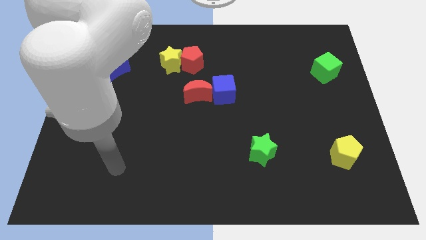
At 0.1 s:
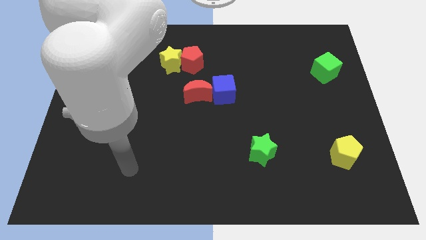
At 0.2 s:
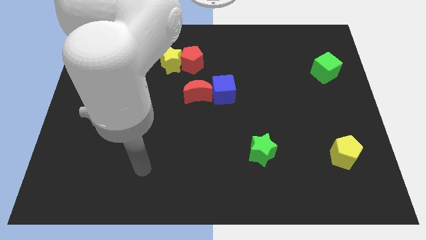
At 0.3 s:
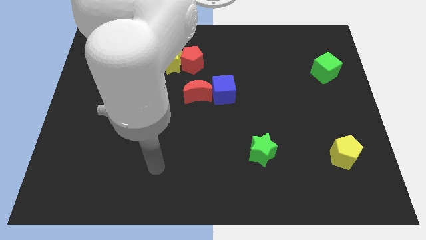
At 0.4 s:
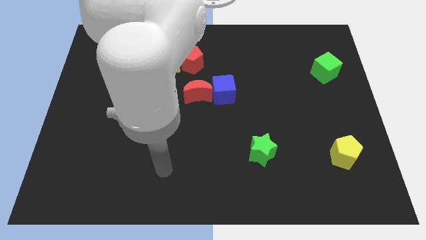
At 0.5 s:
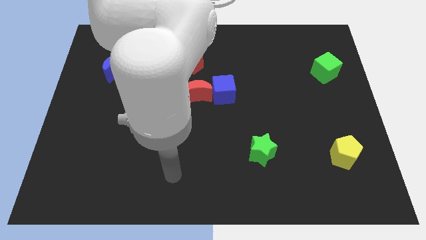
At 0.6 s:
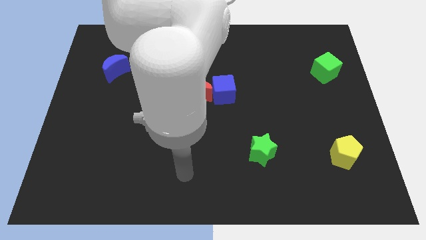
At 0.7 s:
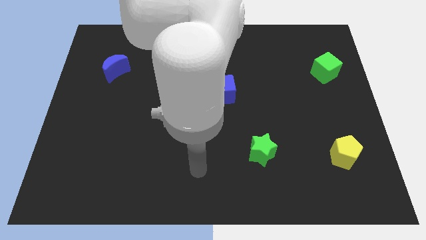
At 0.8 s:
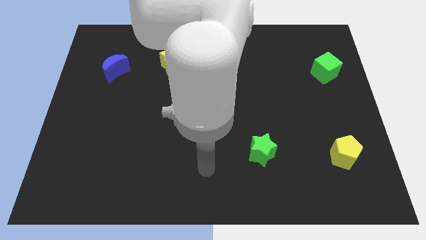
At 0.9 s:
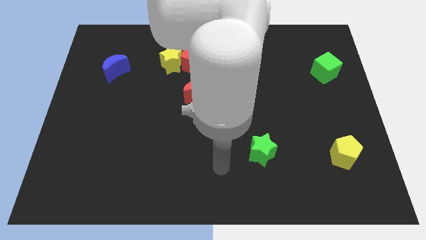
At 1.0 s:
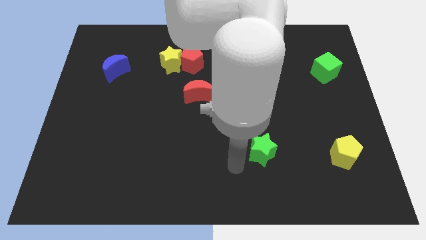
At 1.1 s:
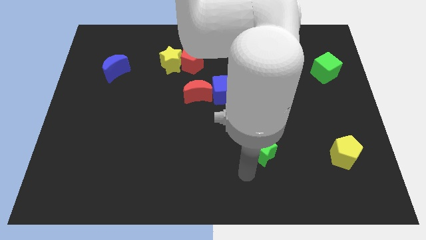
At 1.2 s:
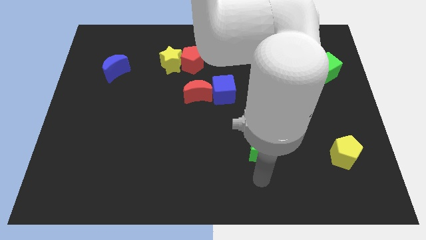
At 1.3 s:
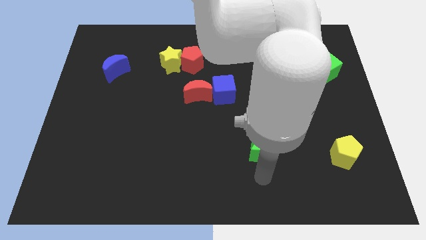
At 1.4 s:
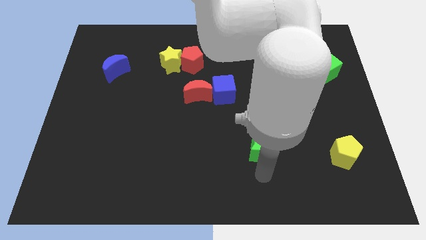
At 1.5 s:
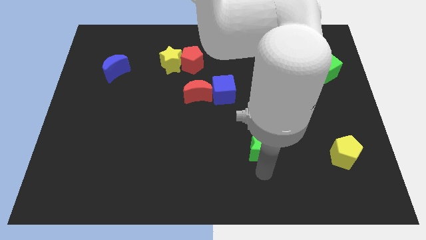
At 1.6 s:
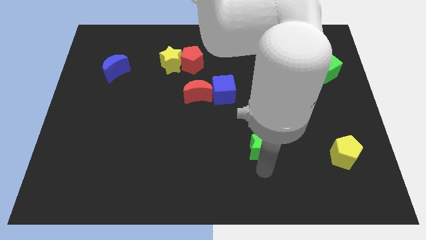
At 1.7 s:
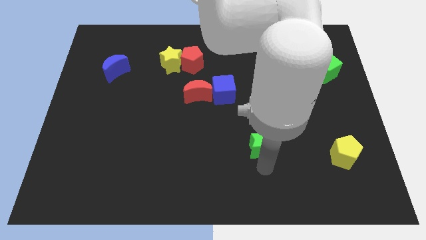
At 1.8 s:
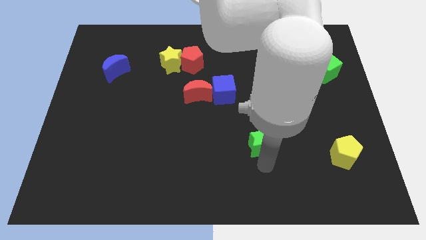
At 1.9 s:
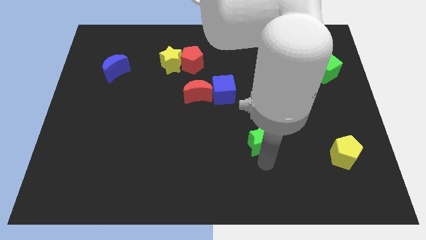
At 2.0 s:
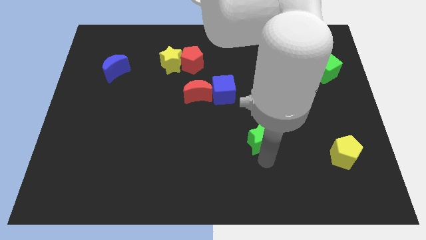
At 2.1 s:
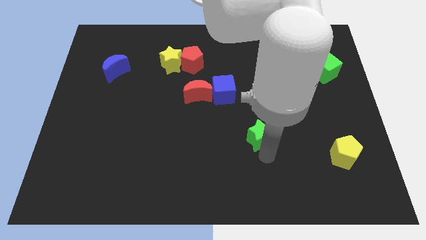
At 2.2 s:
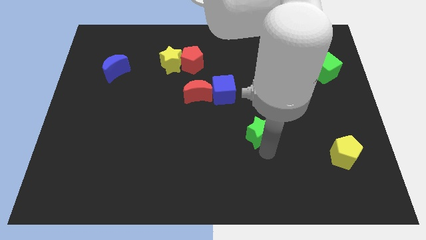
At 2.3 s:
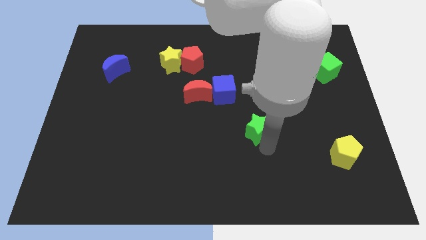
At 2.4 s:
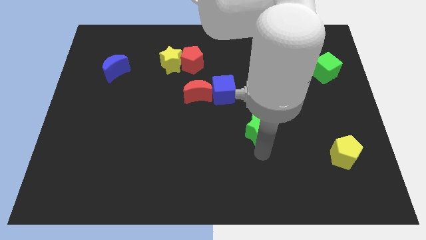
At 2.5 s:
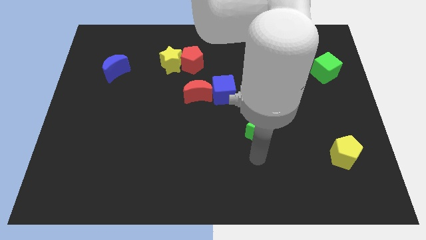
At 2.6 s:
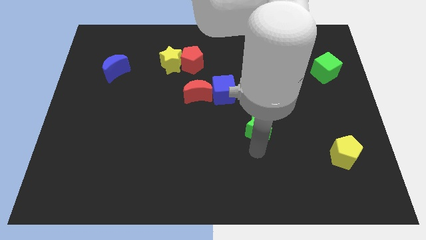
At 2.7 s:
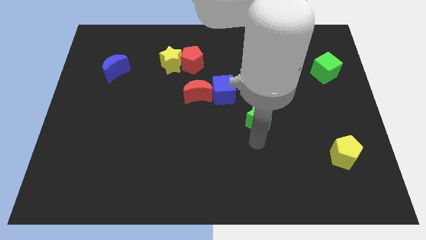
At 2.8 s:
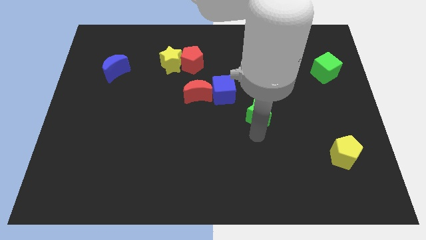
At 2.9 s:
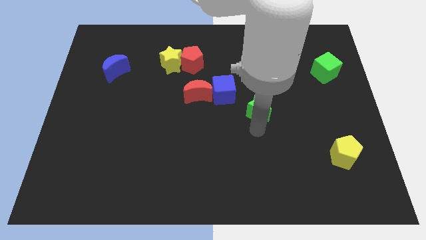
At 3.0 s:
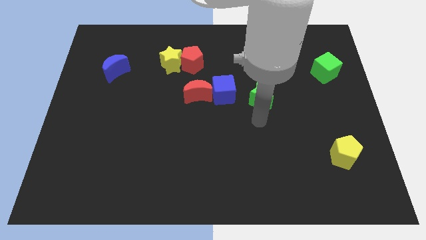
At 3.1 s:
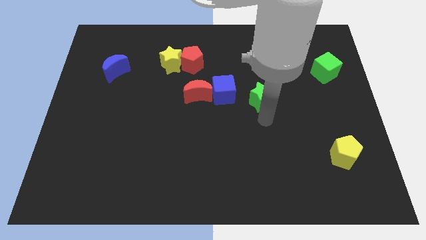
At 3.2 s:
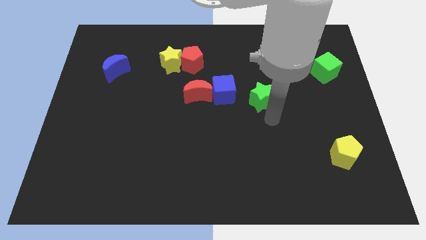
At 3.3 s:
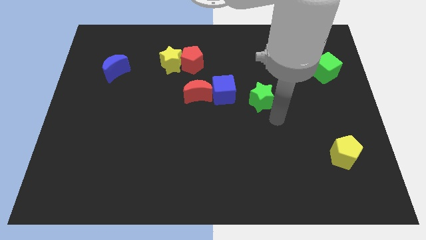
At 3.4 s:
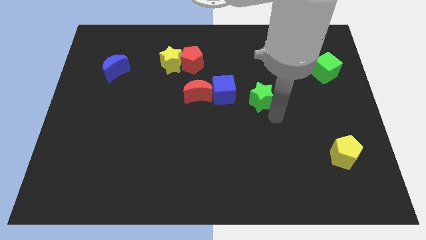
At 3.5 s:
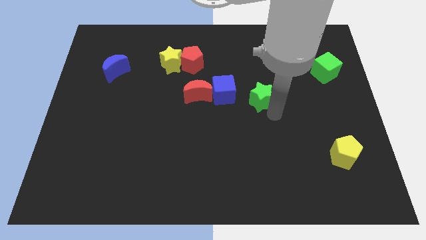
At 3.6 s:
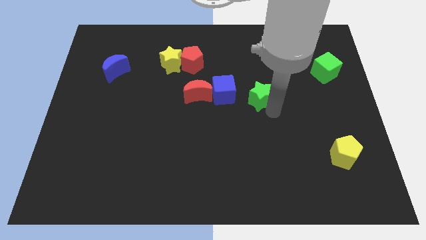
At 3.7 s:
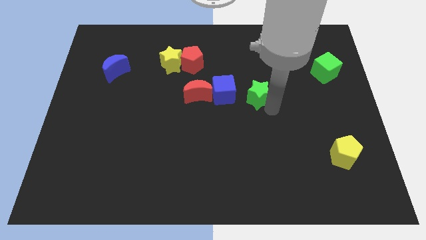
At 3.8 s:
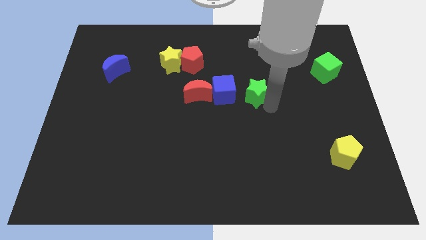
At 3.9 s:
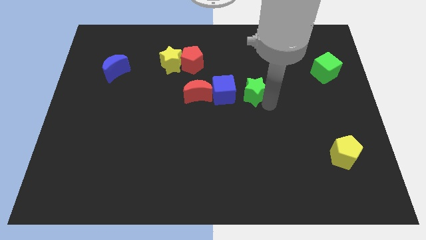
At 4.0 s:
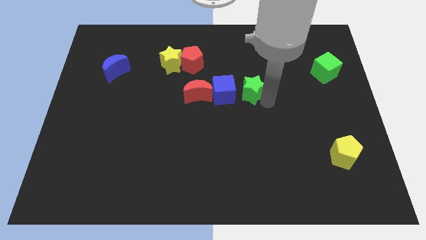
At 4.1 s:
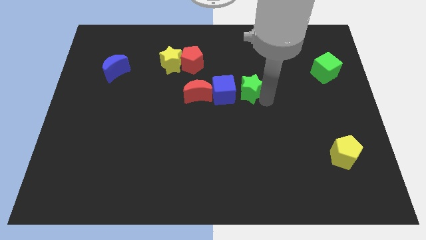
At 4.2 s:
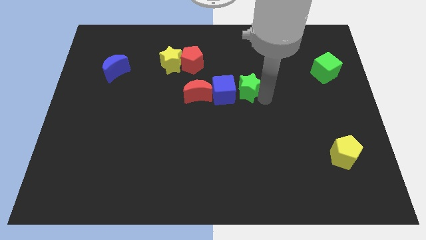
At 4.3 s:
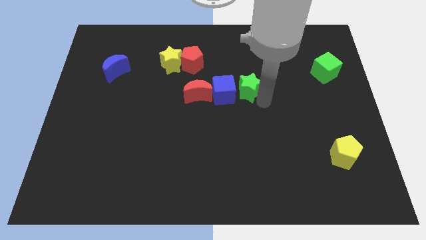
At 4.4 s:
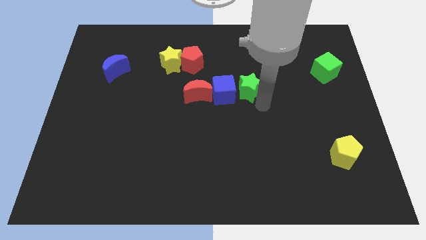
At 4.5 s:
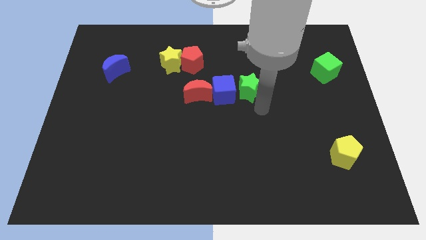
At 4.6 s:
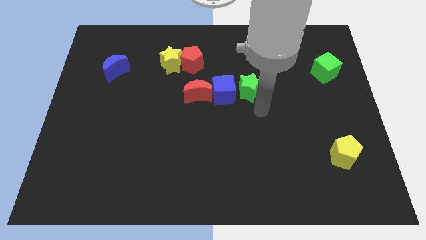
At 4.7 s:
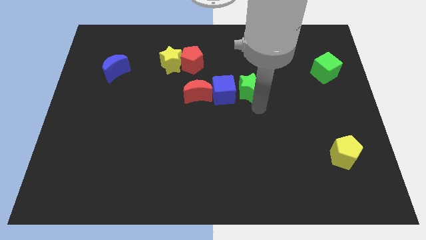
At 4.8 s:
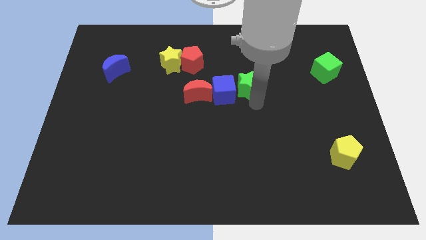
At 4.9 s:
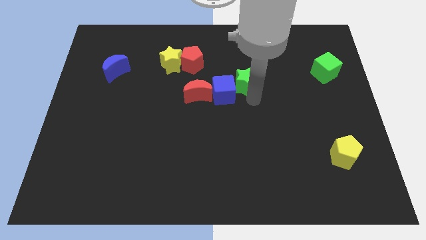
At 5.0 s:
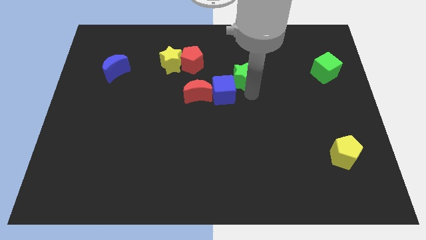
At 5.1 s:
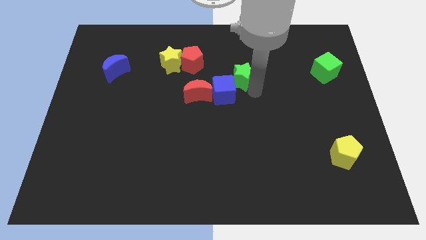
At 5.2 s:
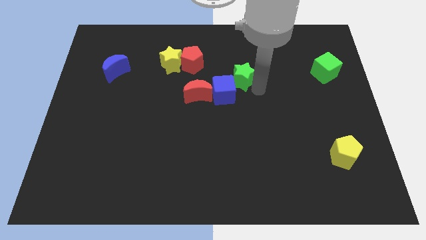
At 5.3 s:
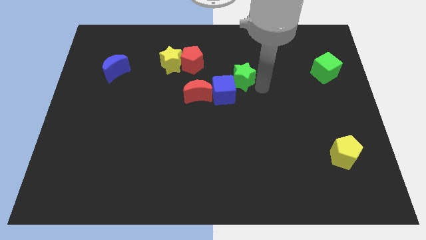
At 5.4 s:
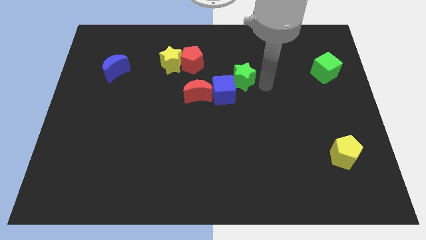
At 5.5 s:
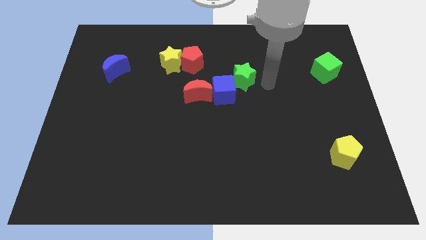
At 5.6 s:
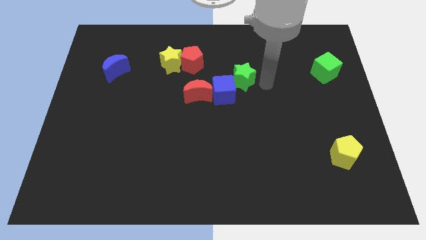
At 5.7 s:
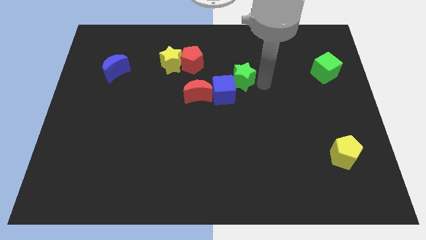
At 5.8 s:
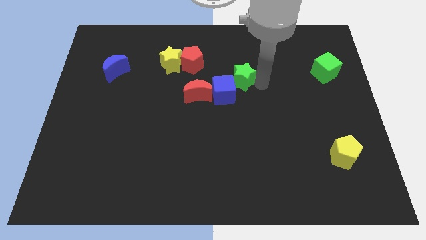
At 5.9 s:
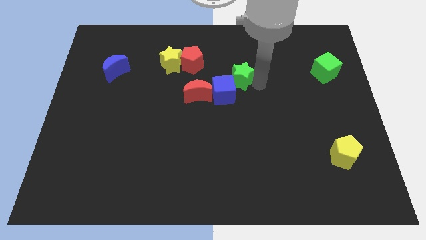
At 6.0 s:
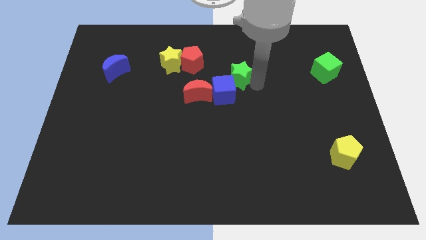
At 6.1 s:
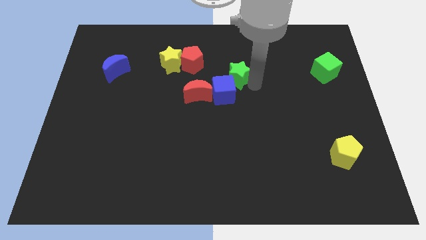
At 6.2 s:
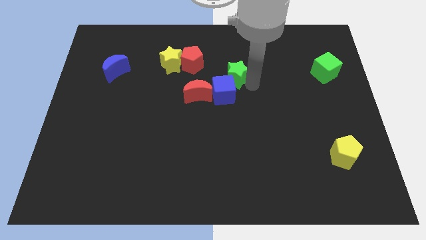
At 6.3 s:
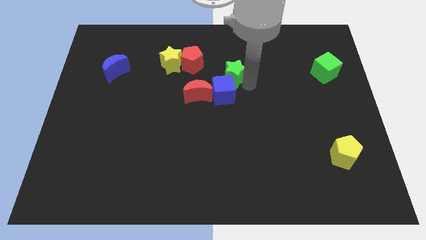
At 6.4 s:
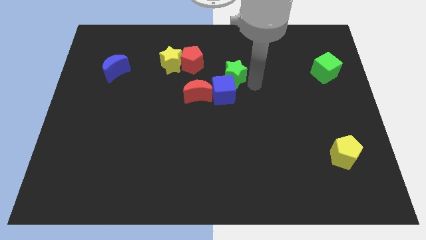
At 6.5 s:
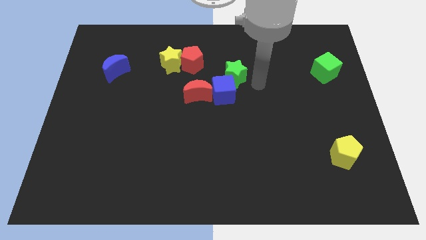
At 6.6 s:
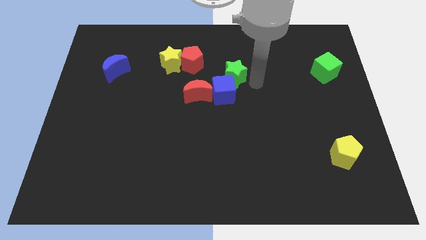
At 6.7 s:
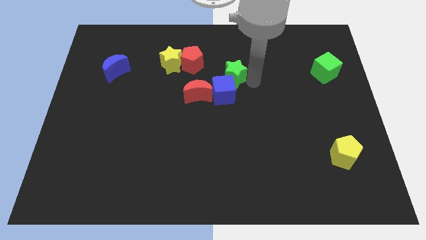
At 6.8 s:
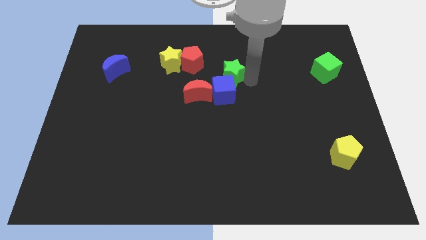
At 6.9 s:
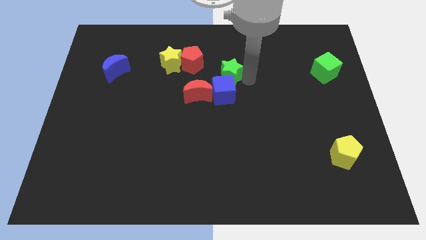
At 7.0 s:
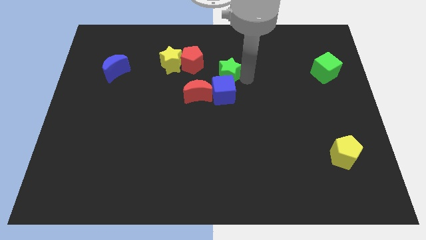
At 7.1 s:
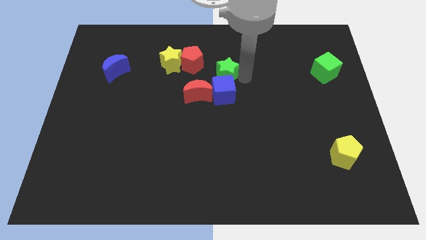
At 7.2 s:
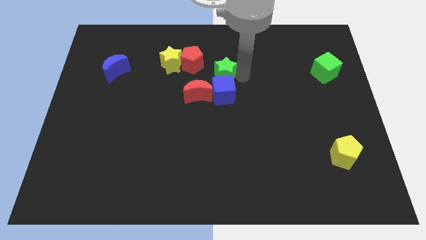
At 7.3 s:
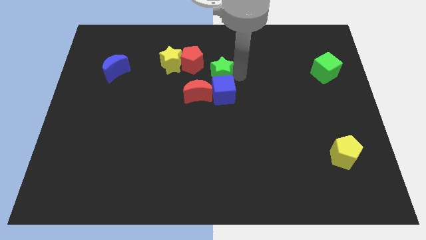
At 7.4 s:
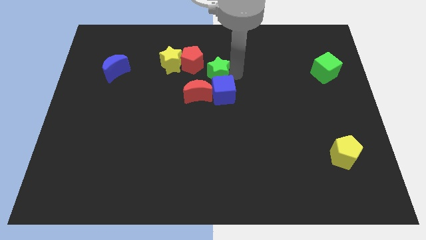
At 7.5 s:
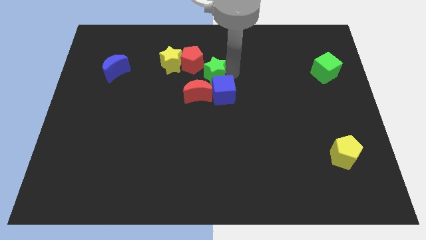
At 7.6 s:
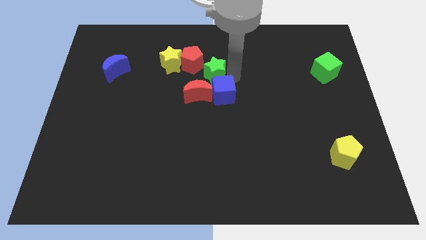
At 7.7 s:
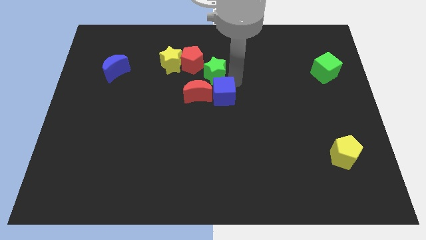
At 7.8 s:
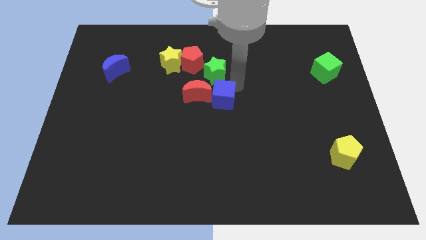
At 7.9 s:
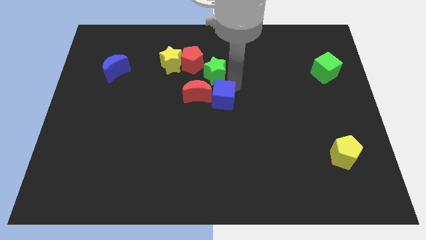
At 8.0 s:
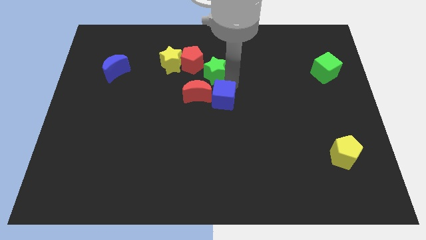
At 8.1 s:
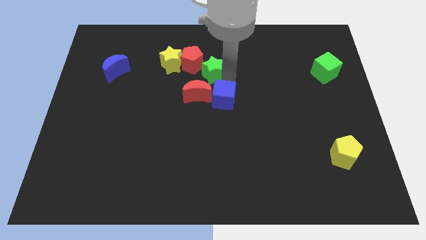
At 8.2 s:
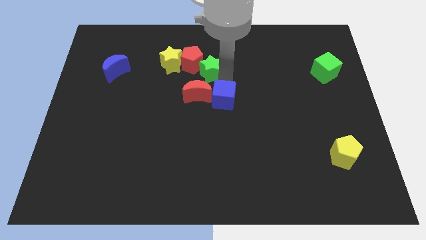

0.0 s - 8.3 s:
put the green star to the red pentagon
